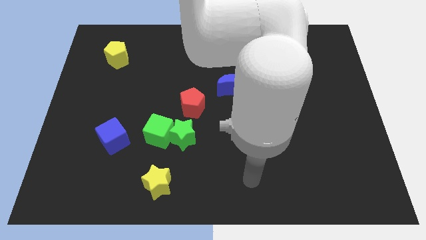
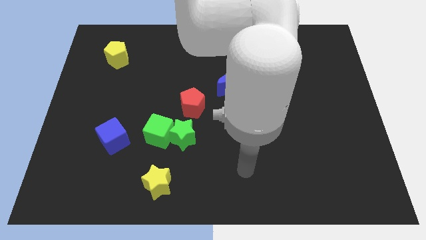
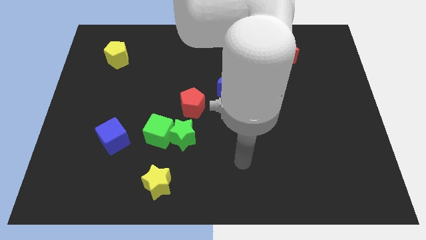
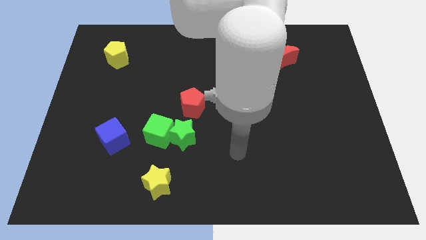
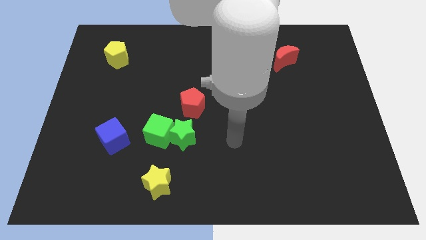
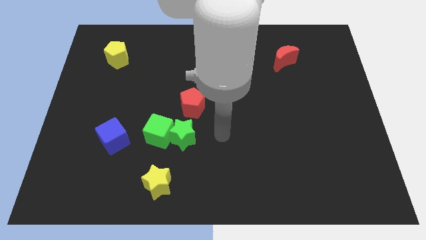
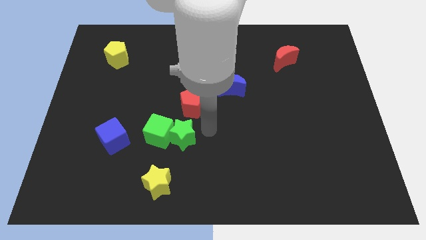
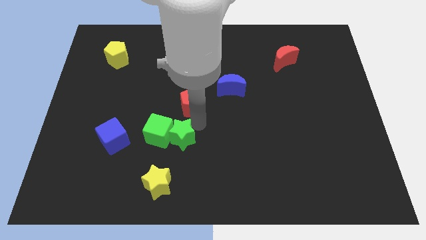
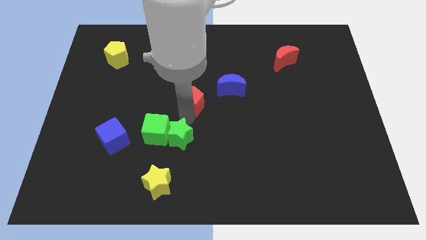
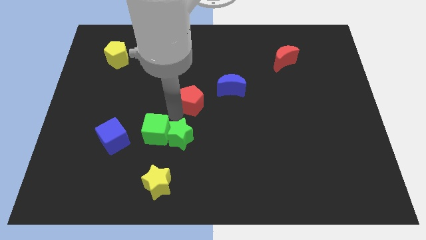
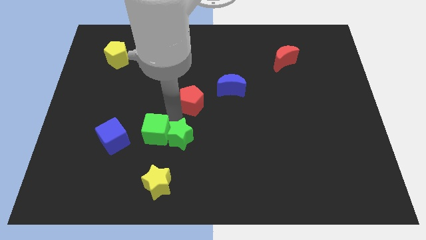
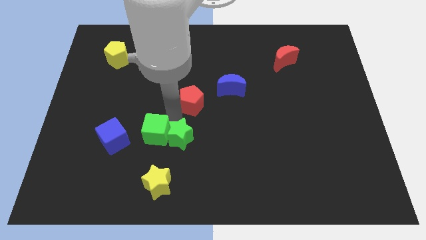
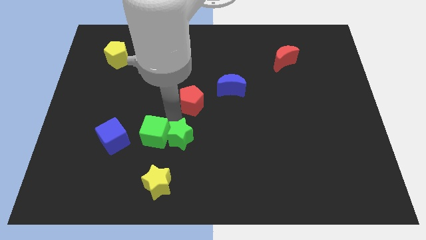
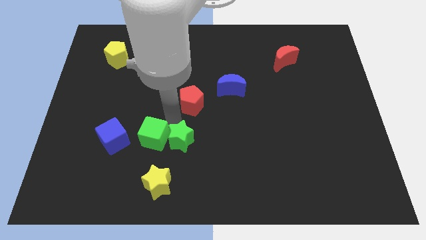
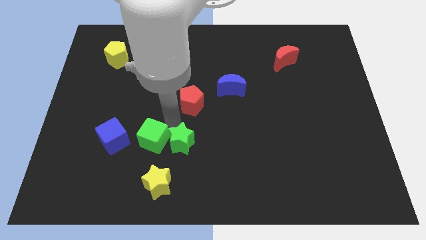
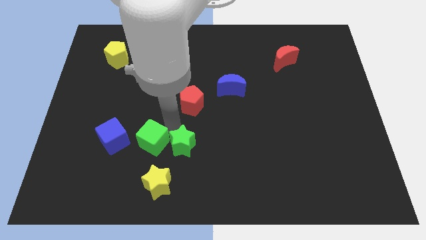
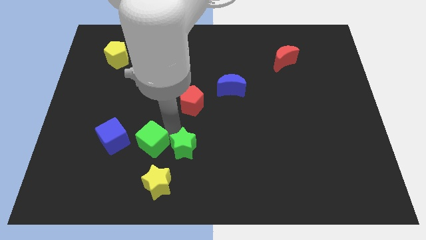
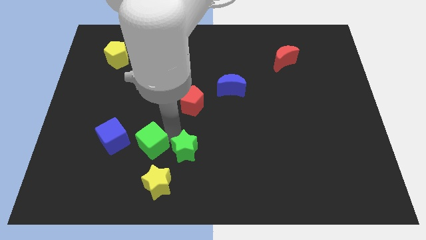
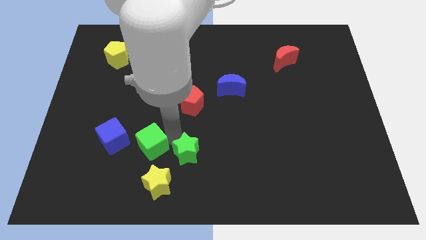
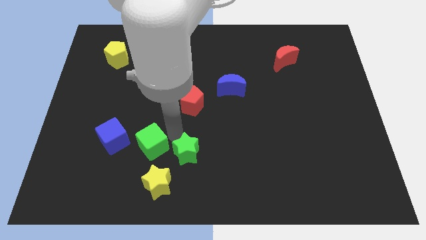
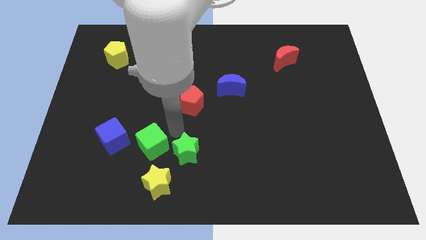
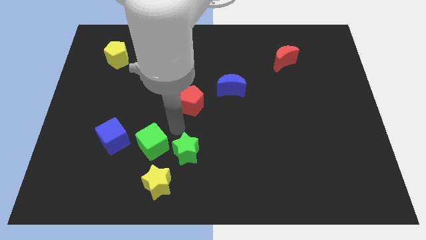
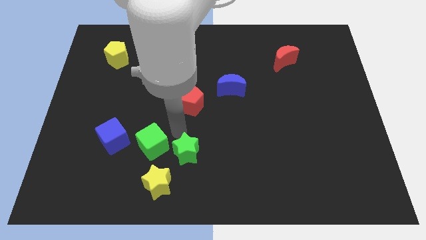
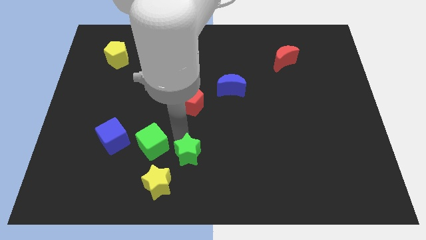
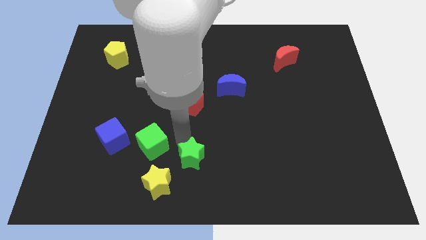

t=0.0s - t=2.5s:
move the green star away from the green cube and red pentagon

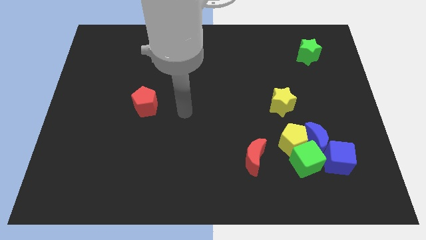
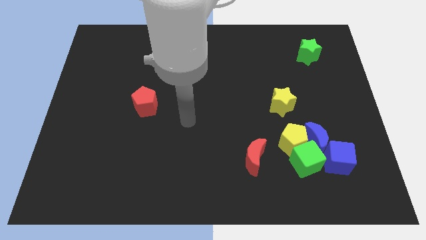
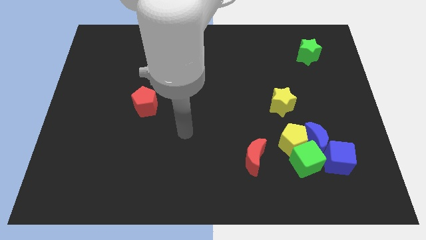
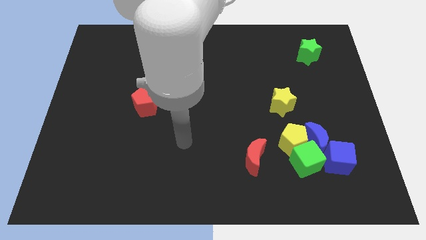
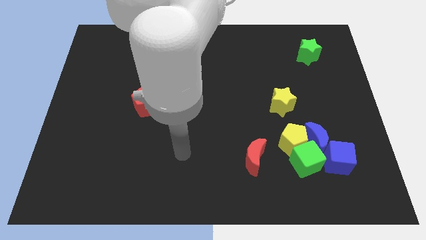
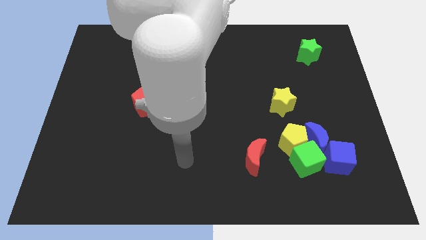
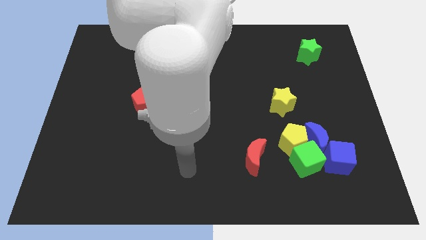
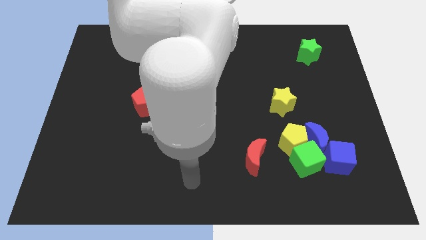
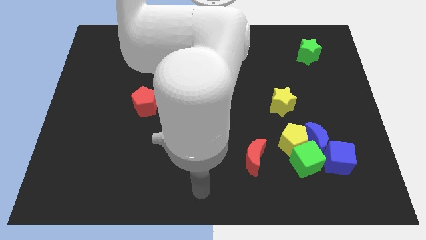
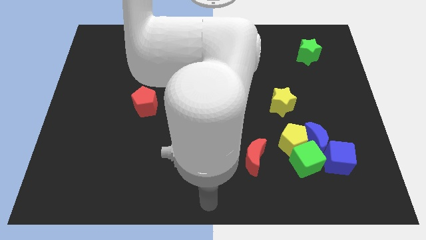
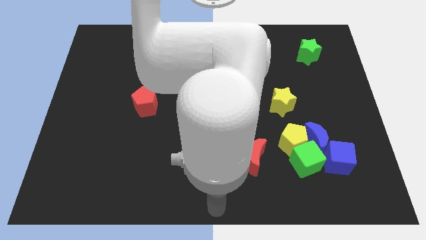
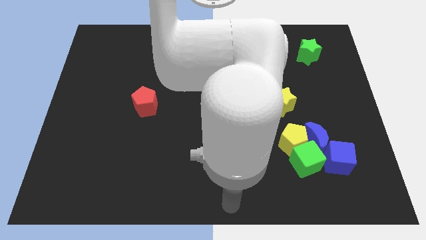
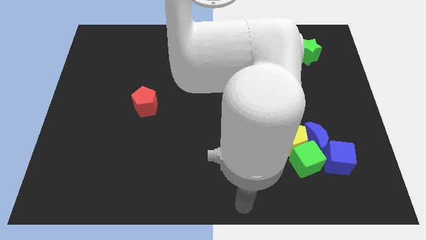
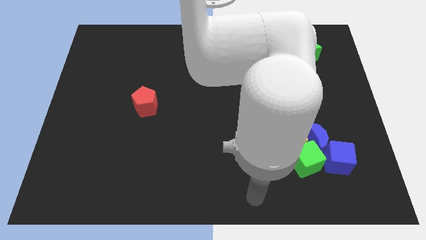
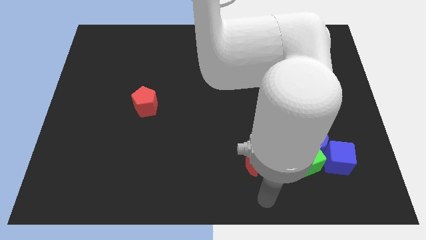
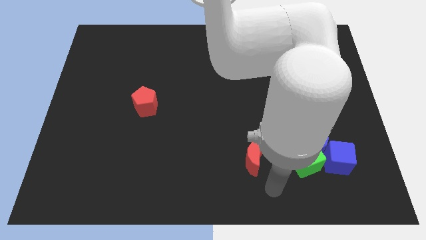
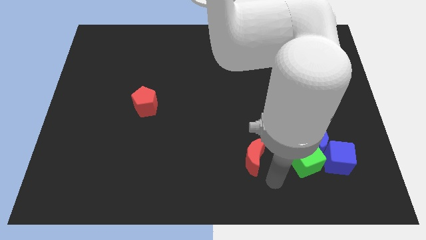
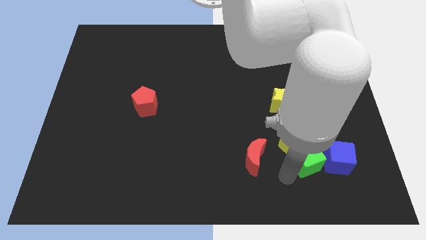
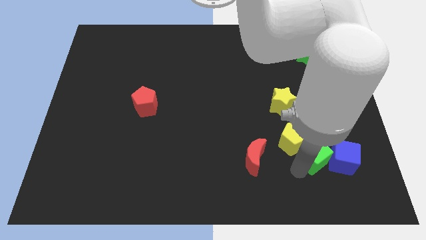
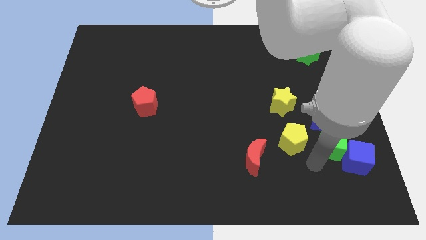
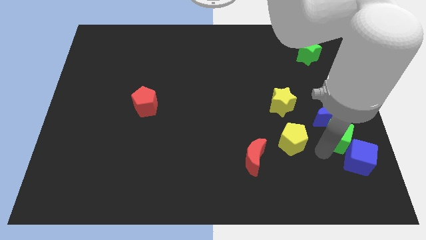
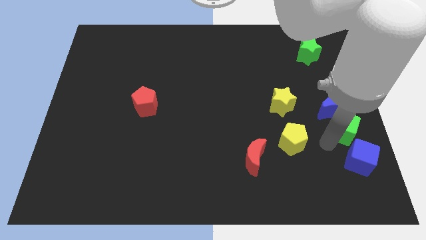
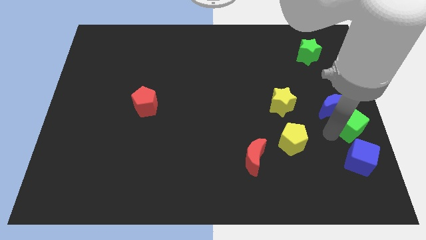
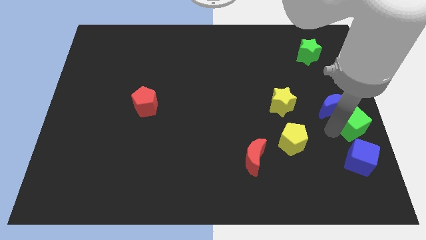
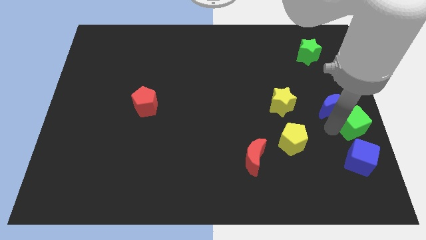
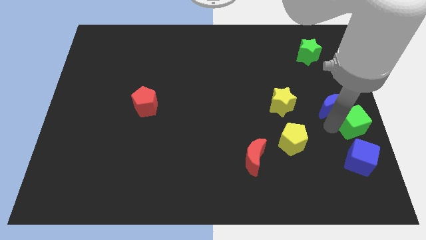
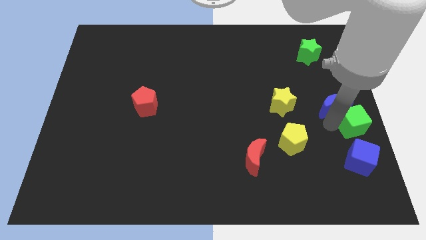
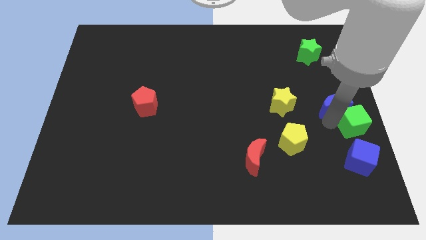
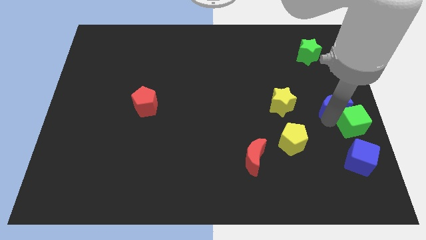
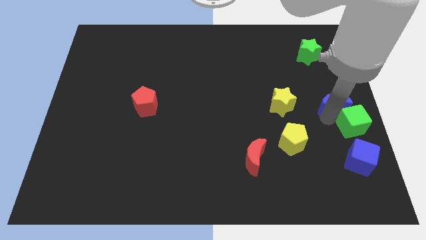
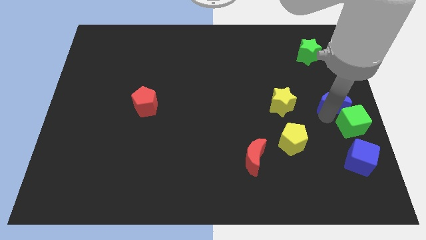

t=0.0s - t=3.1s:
separate the blue moon from the yellow pentagon, green cube, and blue cube

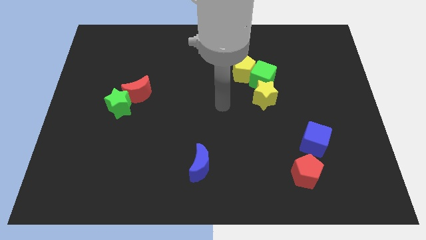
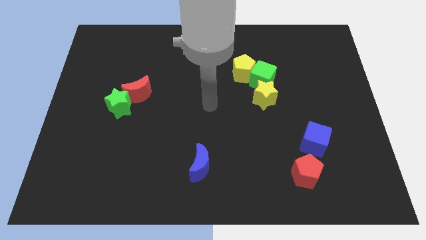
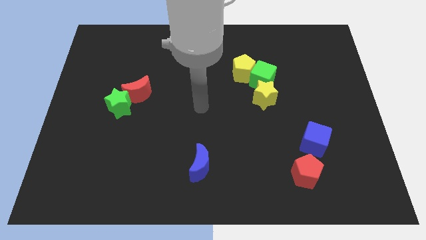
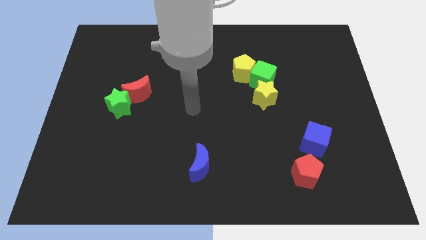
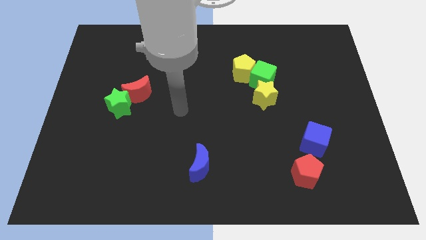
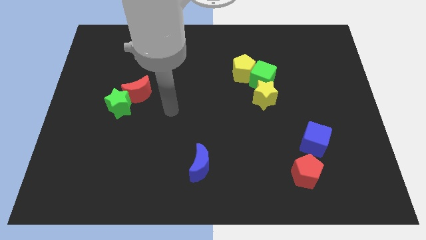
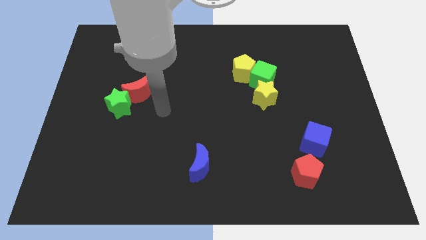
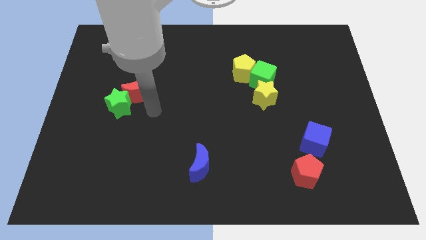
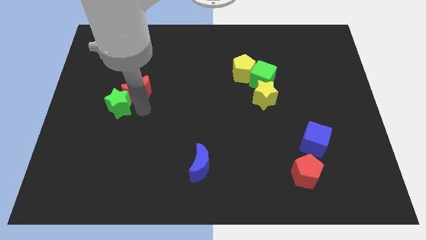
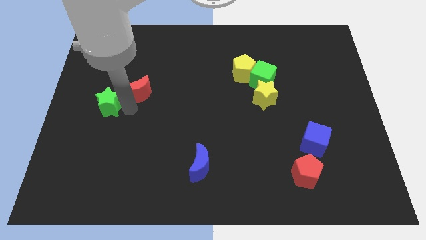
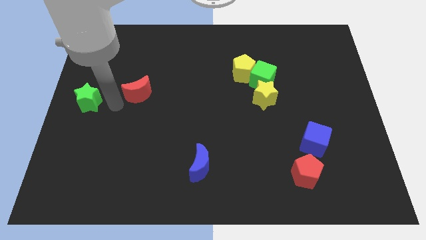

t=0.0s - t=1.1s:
separate the red moon from the green star

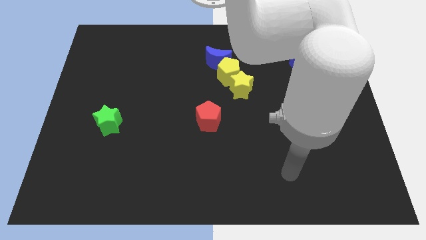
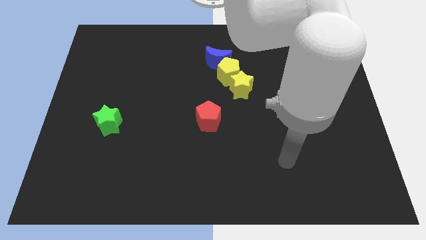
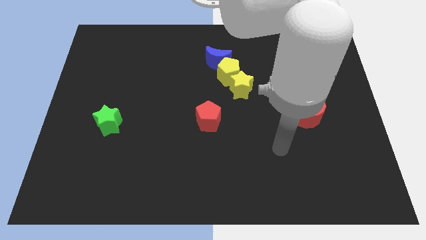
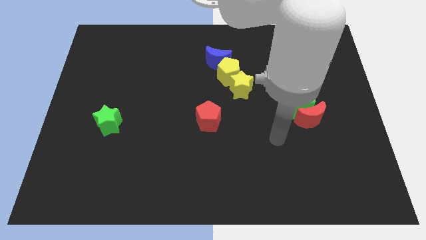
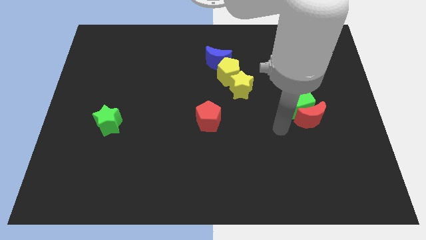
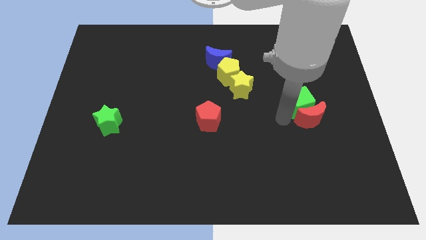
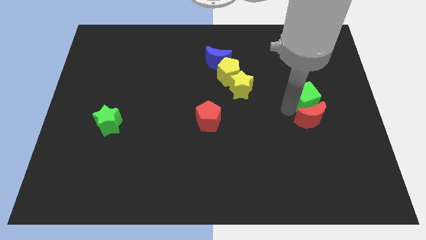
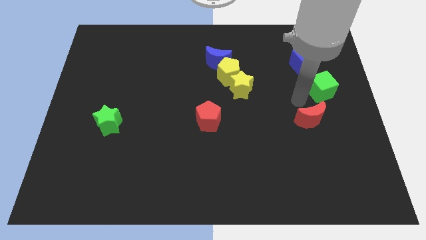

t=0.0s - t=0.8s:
separate the red moon from the green cube

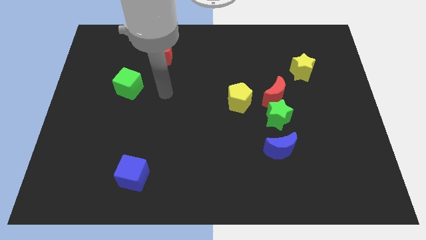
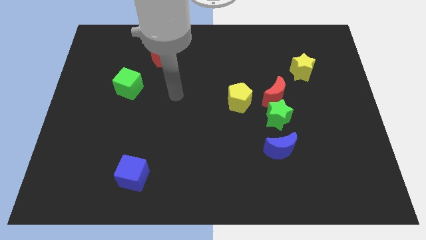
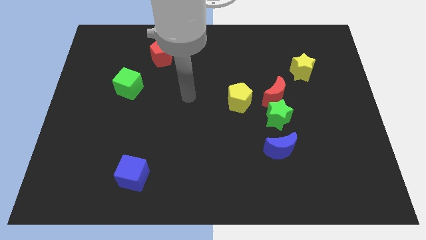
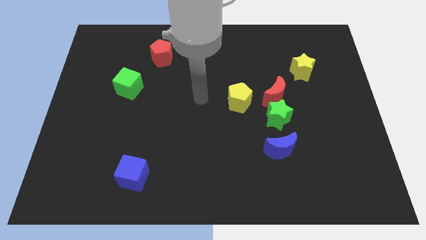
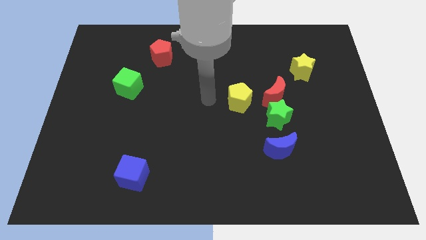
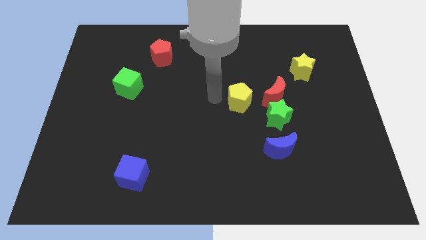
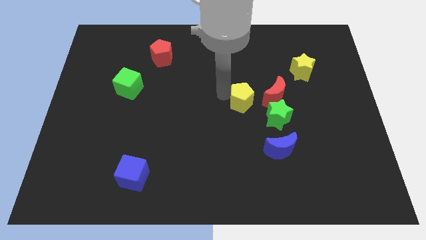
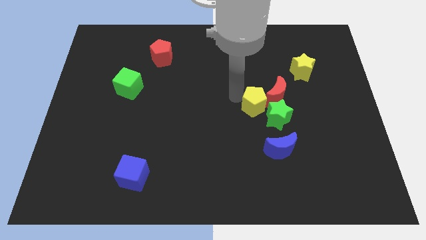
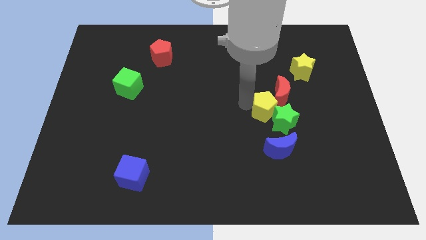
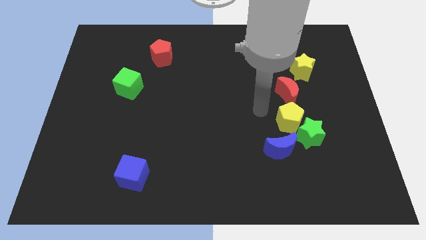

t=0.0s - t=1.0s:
move the red moon away from the green star and yellow pentagon

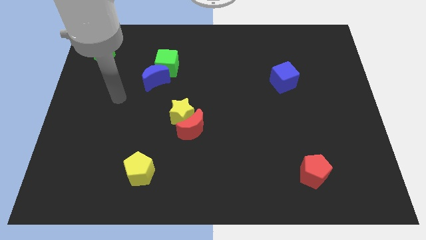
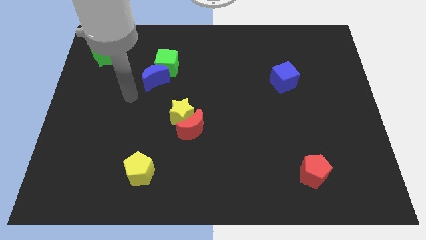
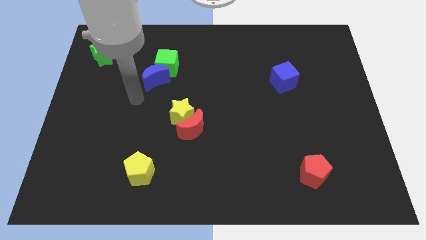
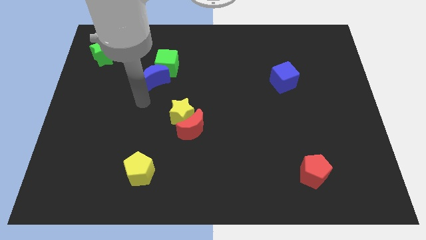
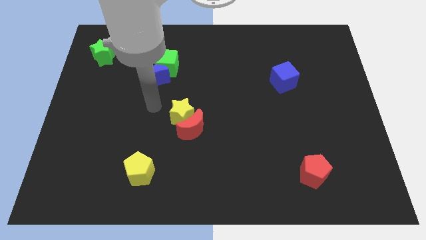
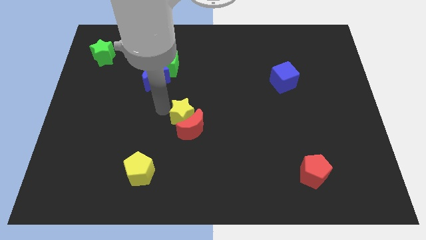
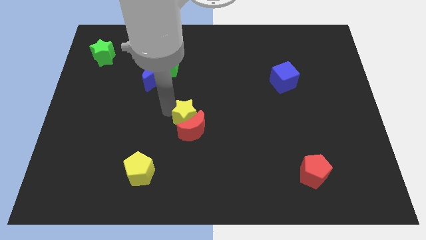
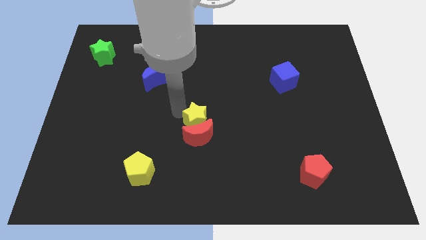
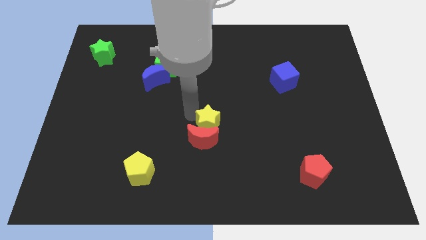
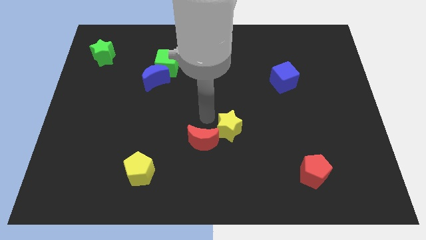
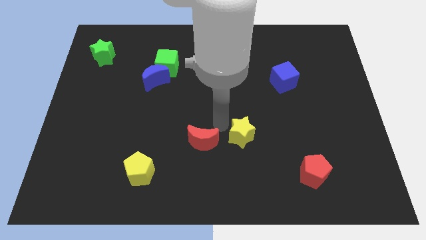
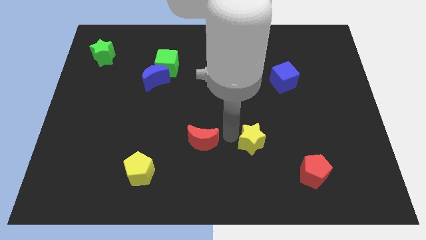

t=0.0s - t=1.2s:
move the red moon away from the yellow star
